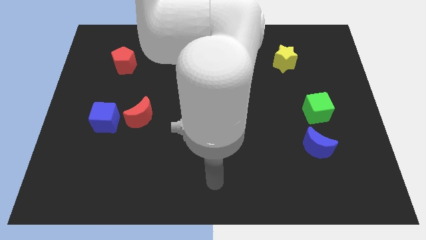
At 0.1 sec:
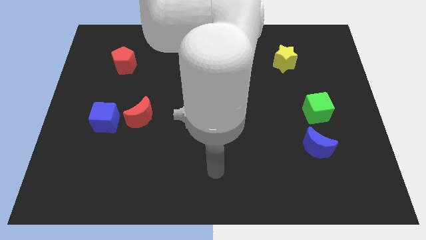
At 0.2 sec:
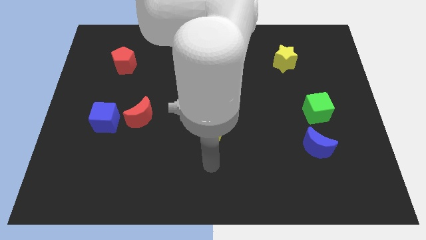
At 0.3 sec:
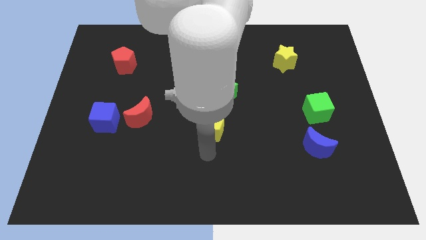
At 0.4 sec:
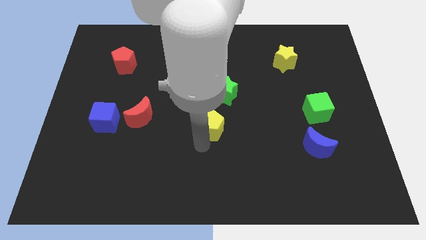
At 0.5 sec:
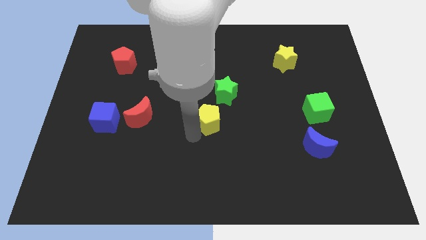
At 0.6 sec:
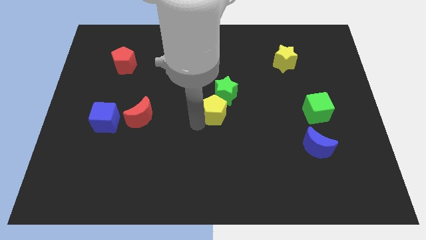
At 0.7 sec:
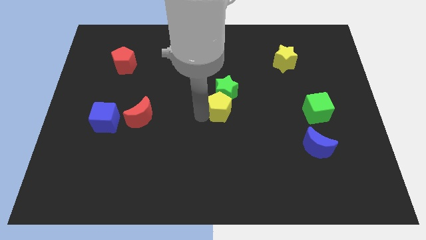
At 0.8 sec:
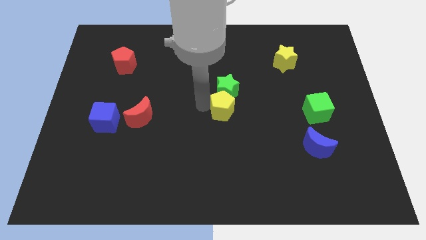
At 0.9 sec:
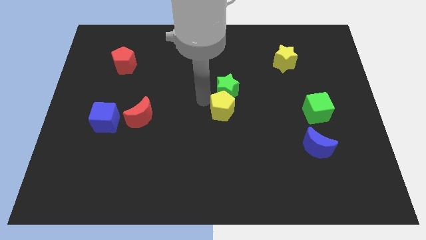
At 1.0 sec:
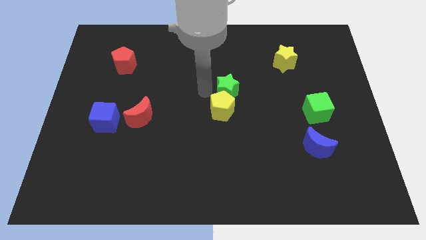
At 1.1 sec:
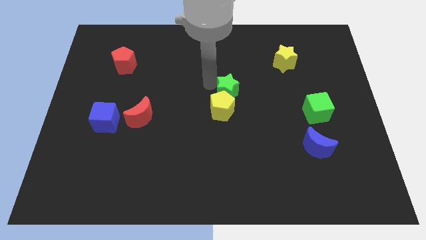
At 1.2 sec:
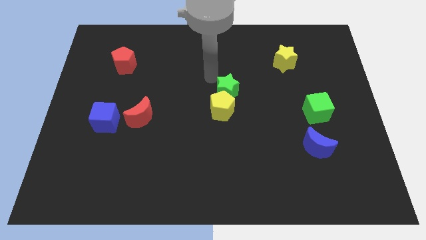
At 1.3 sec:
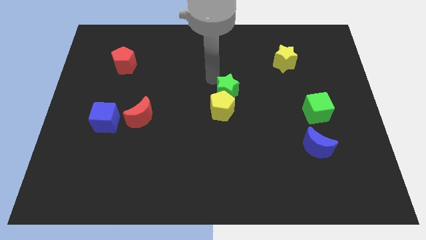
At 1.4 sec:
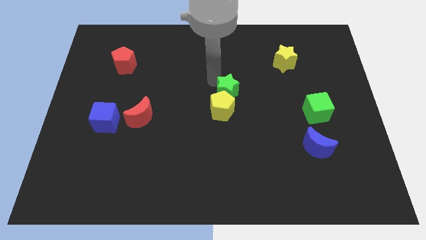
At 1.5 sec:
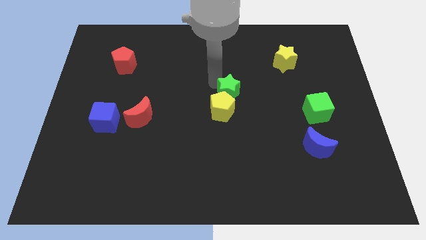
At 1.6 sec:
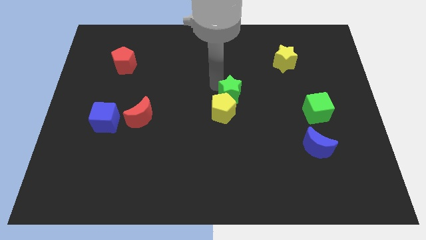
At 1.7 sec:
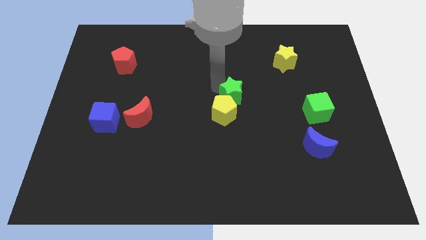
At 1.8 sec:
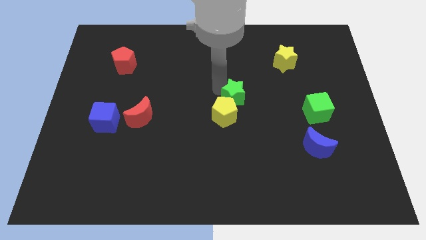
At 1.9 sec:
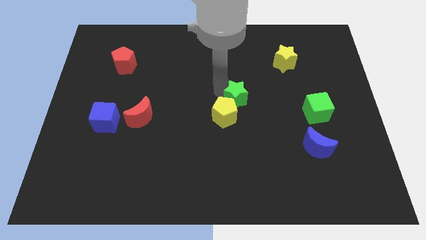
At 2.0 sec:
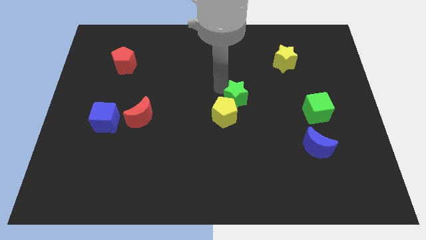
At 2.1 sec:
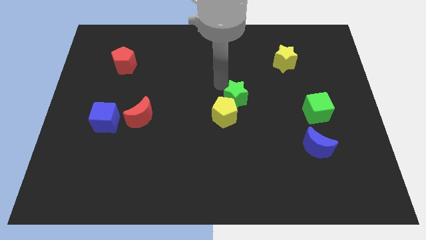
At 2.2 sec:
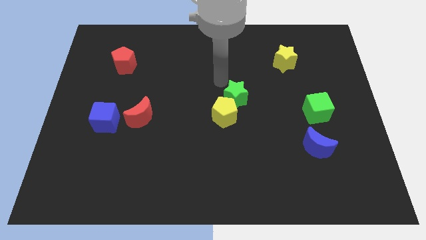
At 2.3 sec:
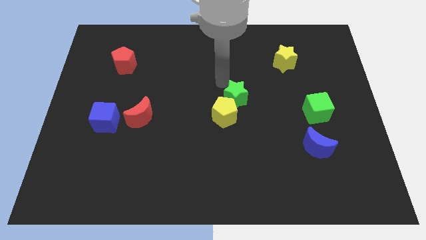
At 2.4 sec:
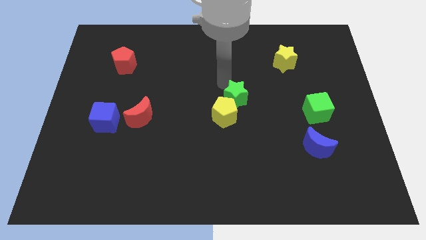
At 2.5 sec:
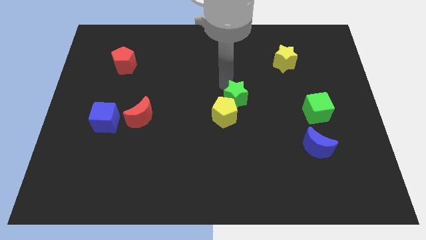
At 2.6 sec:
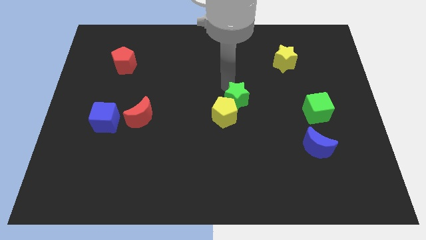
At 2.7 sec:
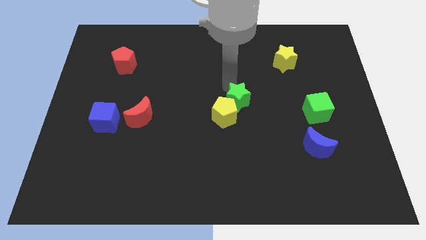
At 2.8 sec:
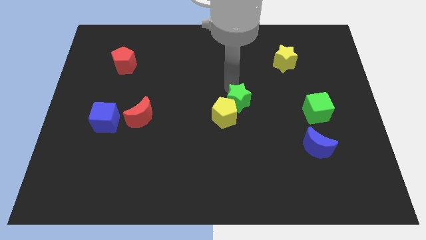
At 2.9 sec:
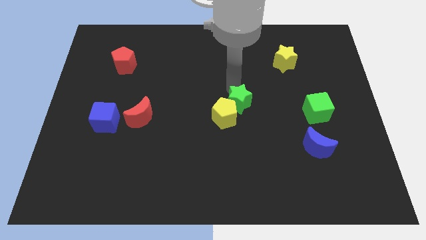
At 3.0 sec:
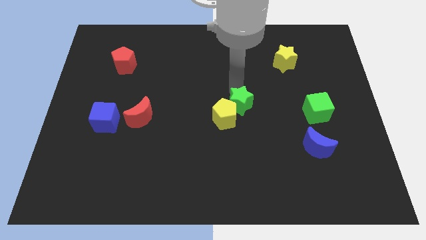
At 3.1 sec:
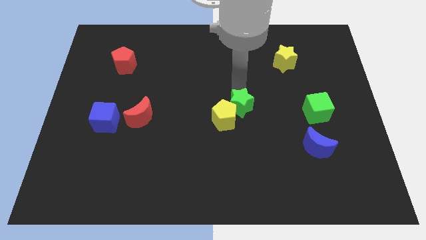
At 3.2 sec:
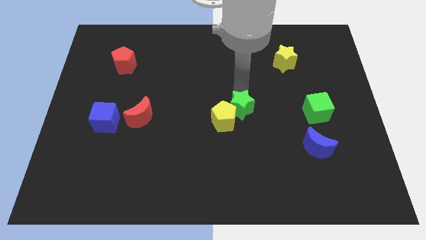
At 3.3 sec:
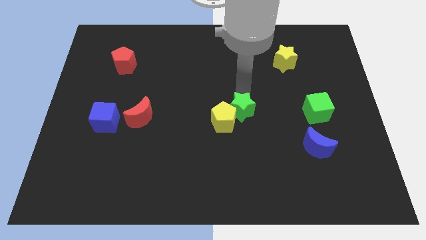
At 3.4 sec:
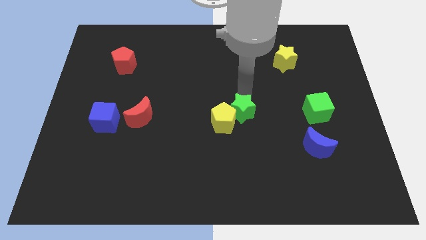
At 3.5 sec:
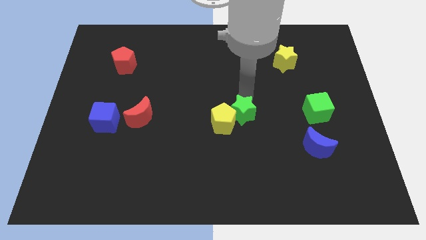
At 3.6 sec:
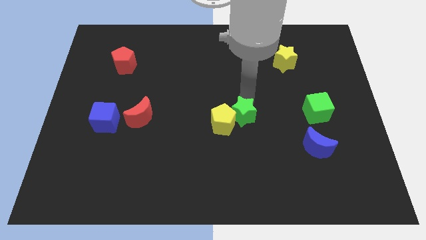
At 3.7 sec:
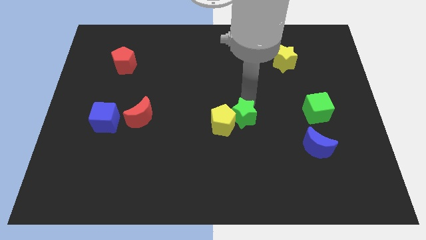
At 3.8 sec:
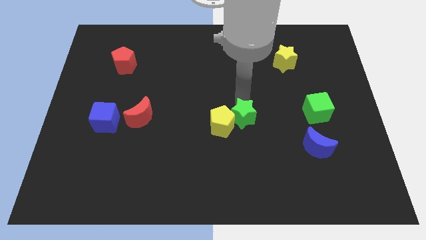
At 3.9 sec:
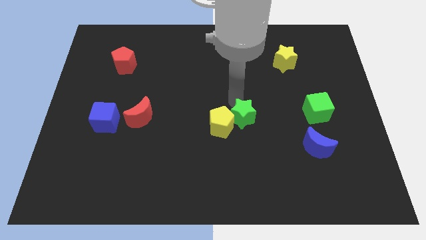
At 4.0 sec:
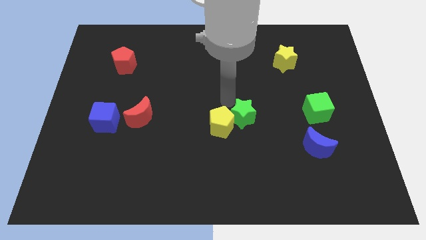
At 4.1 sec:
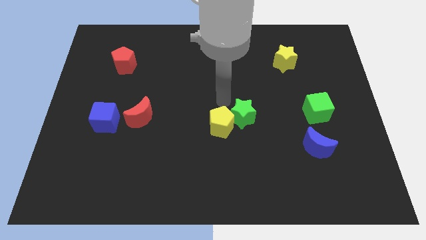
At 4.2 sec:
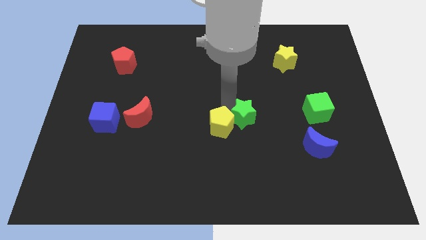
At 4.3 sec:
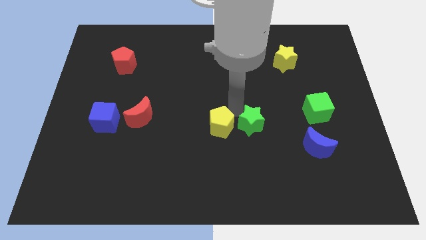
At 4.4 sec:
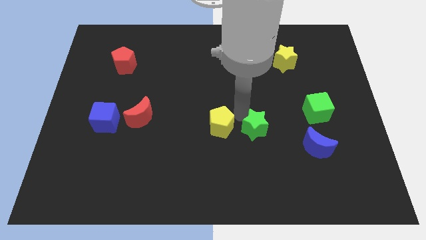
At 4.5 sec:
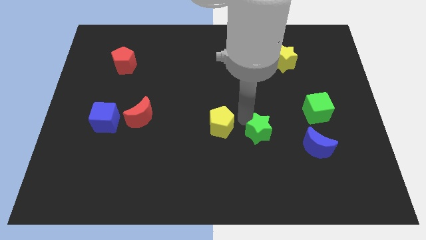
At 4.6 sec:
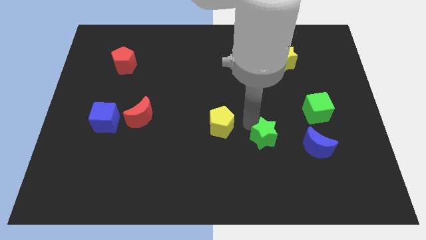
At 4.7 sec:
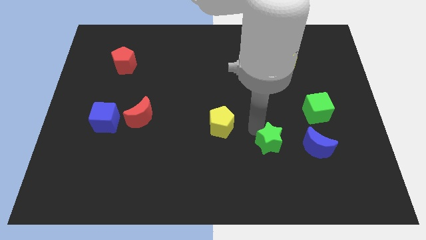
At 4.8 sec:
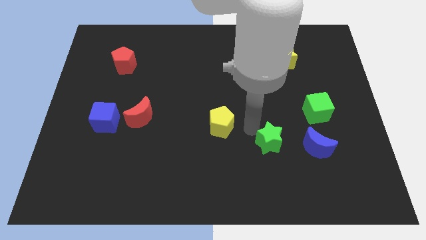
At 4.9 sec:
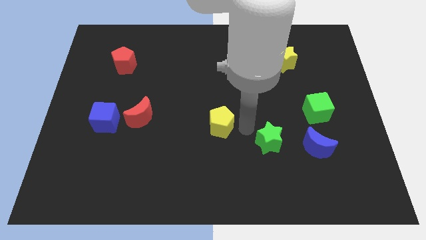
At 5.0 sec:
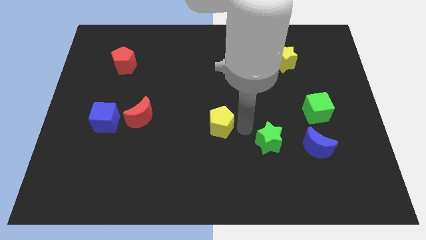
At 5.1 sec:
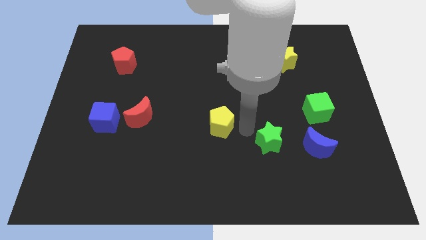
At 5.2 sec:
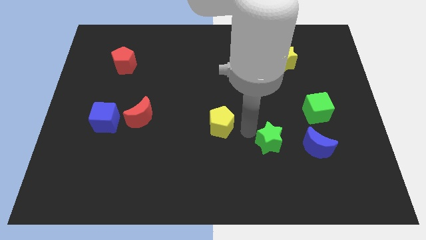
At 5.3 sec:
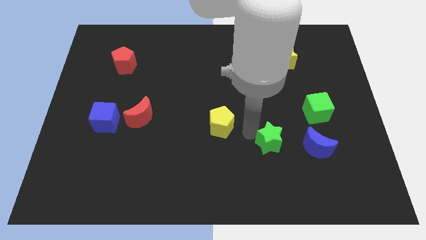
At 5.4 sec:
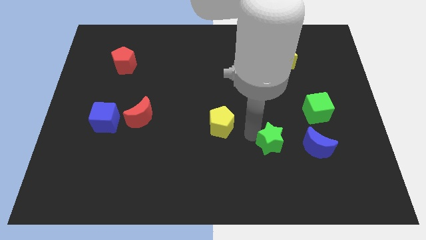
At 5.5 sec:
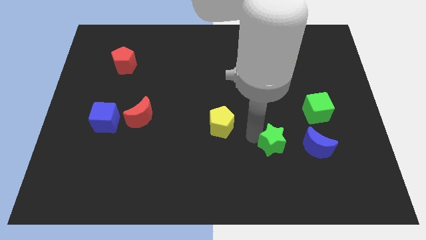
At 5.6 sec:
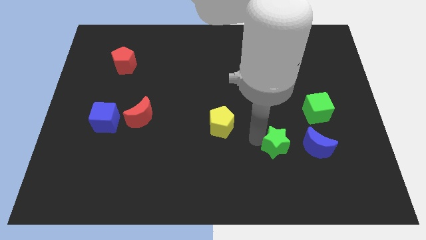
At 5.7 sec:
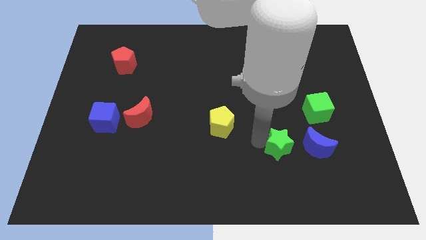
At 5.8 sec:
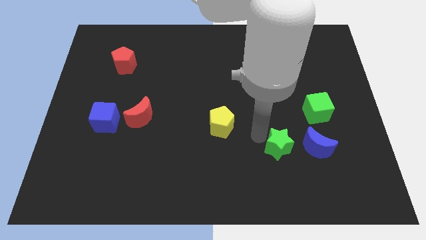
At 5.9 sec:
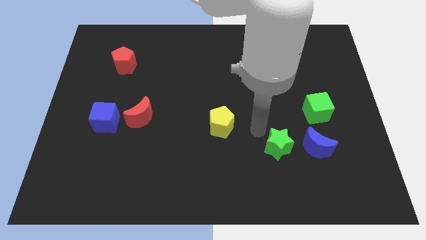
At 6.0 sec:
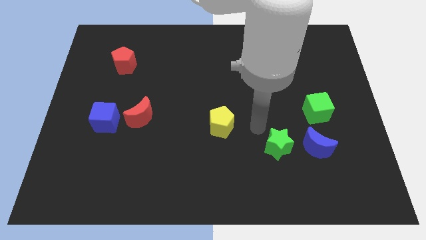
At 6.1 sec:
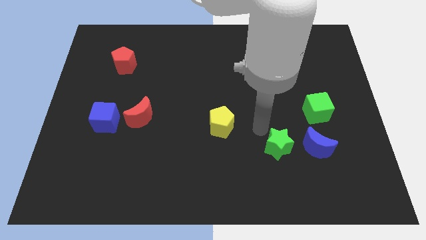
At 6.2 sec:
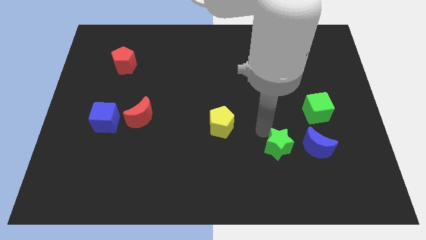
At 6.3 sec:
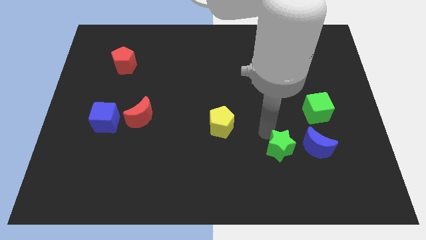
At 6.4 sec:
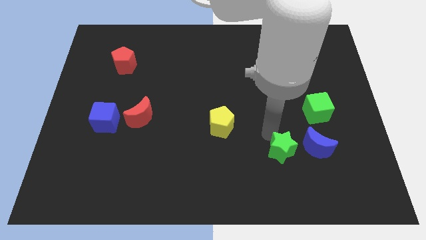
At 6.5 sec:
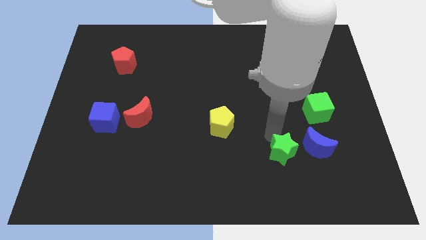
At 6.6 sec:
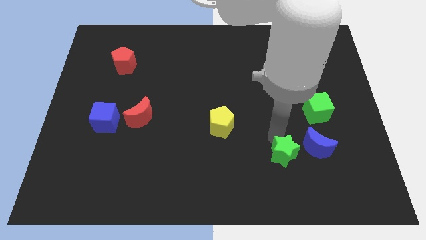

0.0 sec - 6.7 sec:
slide the green star down and right

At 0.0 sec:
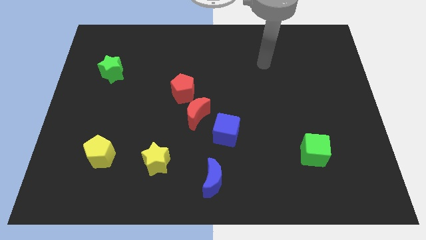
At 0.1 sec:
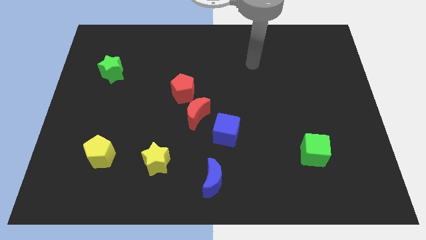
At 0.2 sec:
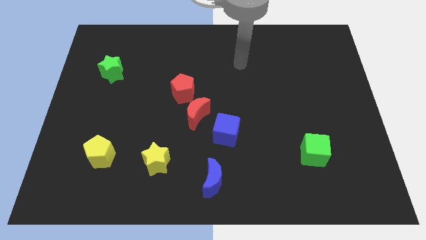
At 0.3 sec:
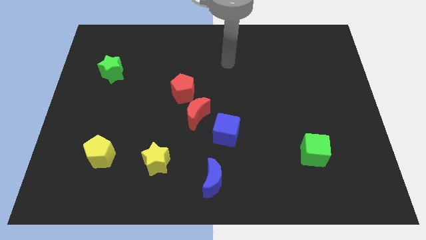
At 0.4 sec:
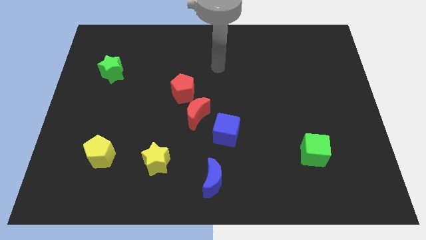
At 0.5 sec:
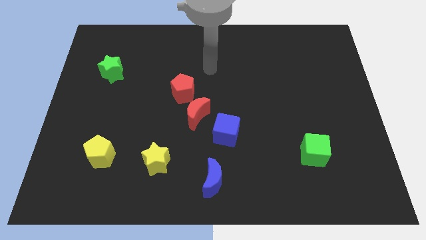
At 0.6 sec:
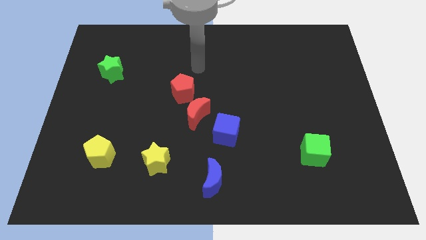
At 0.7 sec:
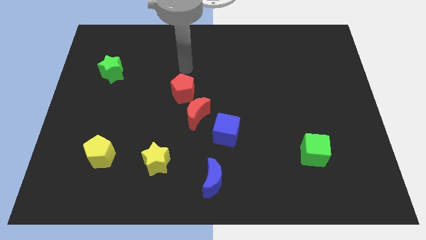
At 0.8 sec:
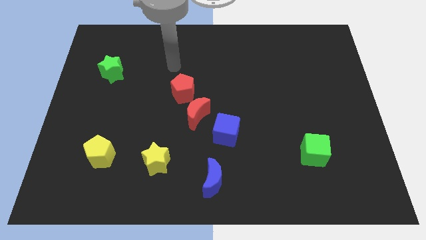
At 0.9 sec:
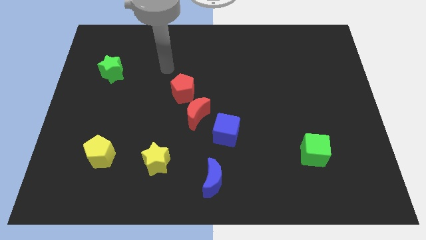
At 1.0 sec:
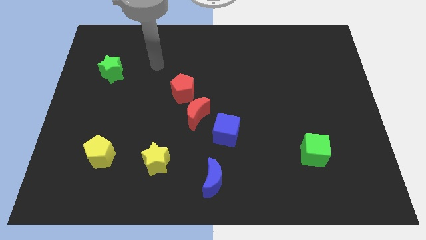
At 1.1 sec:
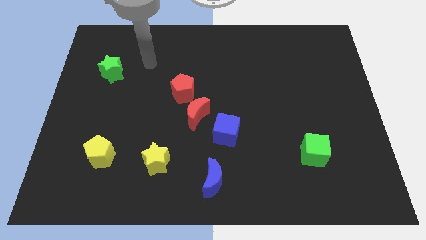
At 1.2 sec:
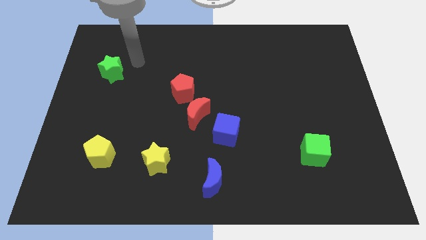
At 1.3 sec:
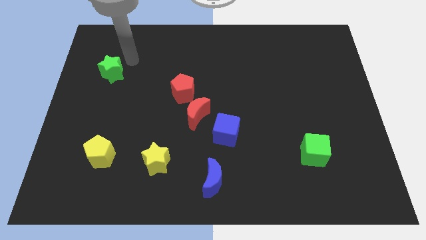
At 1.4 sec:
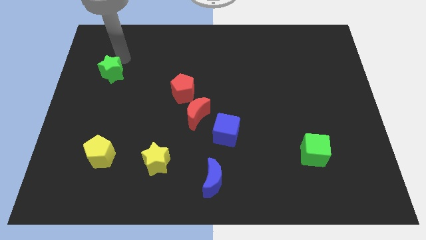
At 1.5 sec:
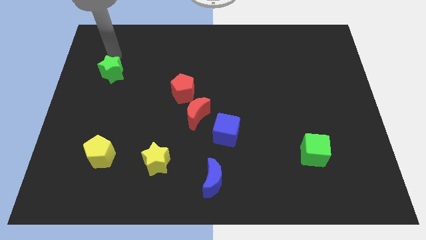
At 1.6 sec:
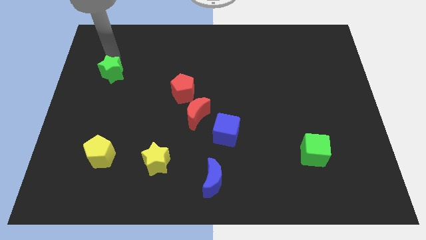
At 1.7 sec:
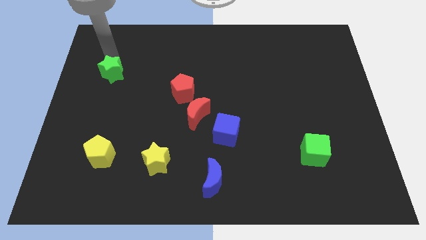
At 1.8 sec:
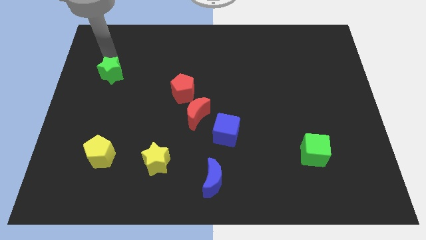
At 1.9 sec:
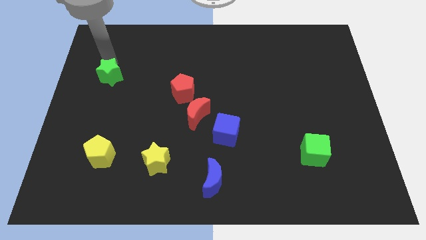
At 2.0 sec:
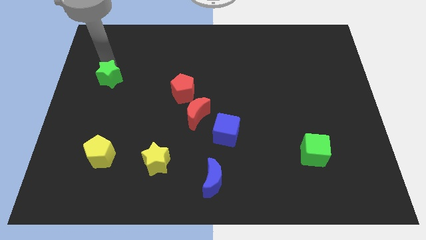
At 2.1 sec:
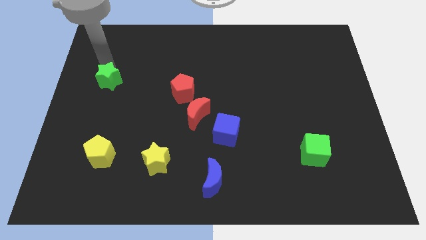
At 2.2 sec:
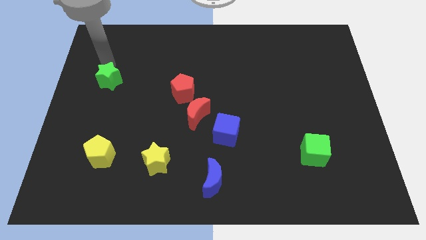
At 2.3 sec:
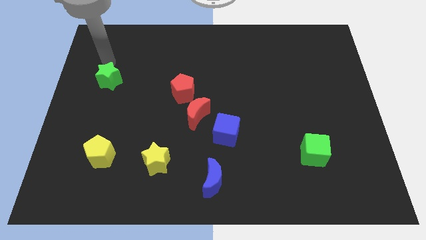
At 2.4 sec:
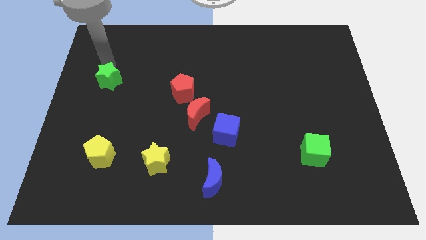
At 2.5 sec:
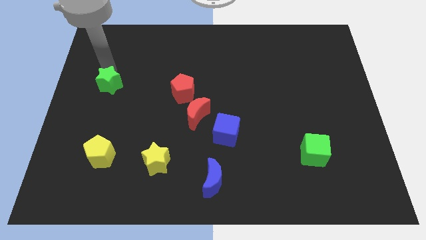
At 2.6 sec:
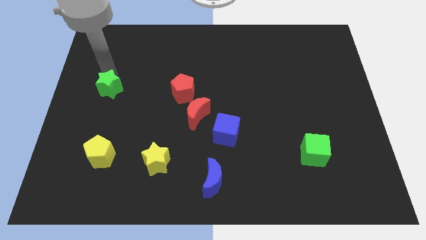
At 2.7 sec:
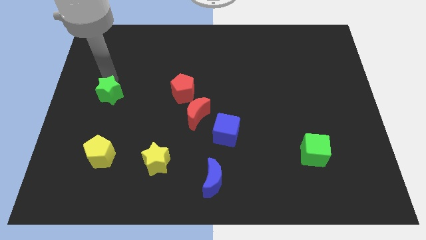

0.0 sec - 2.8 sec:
push the green star a little bit down
